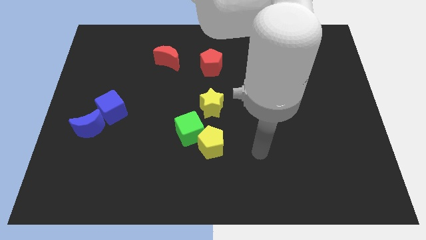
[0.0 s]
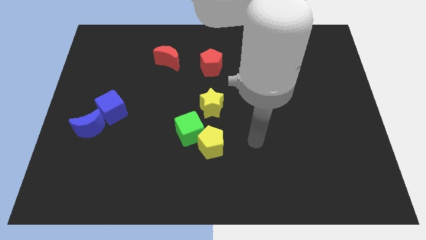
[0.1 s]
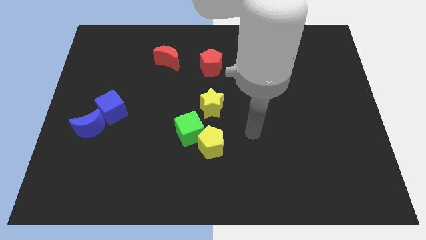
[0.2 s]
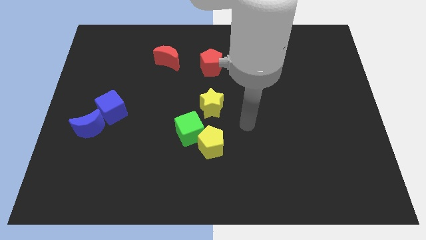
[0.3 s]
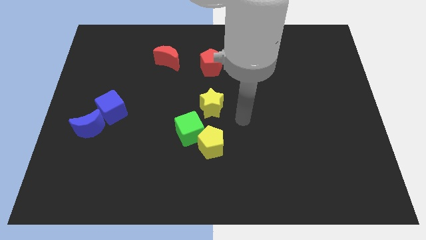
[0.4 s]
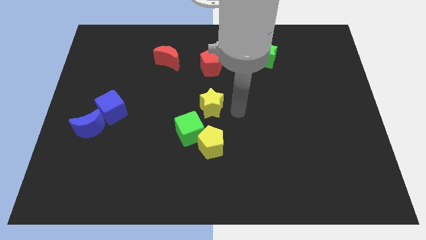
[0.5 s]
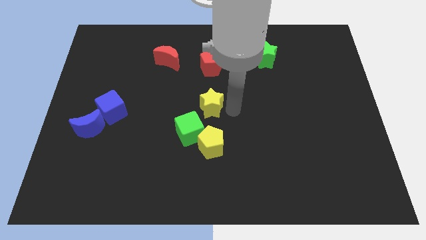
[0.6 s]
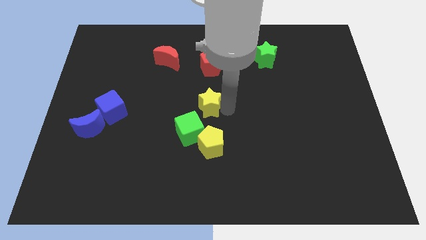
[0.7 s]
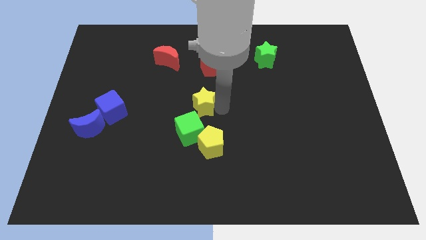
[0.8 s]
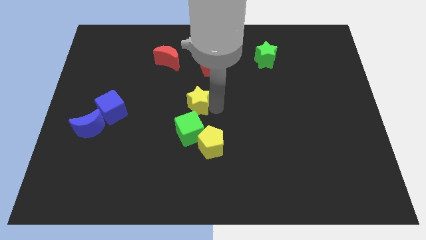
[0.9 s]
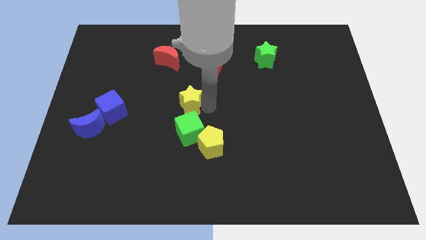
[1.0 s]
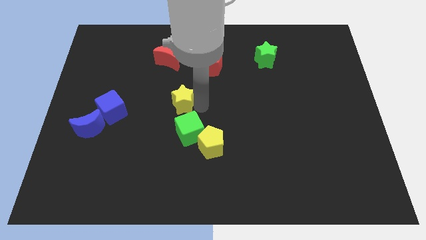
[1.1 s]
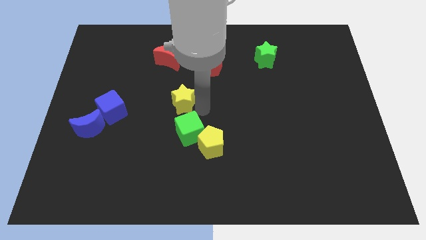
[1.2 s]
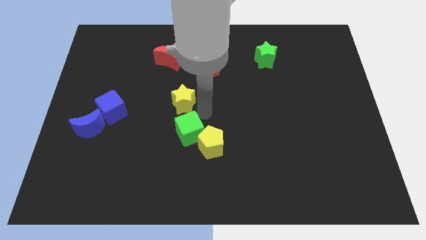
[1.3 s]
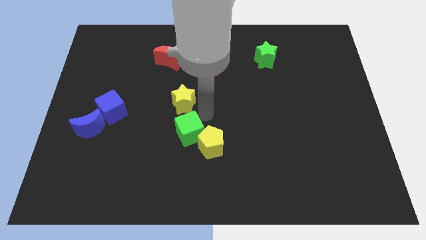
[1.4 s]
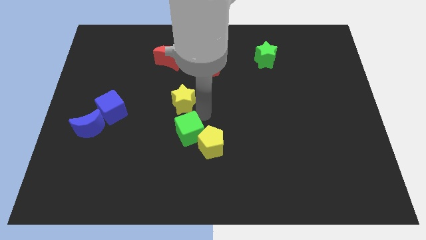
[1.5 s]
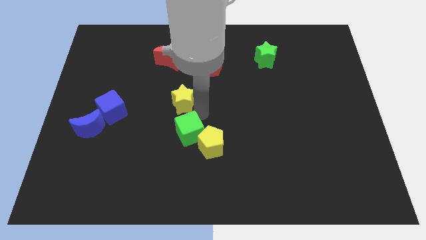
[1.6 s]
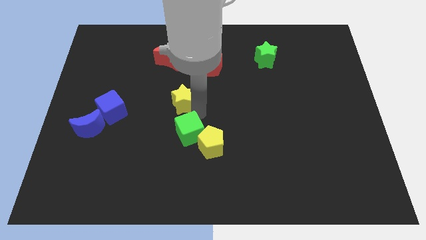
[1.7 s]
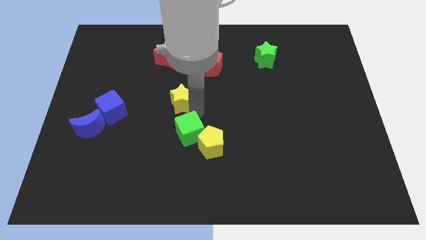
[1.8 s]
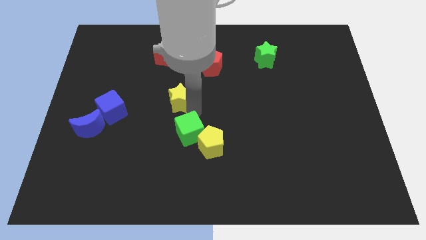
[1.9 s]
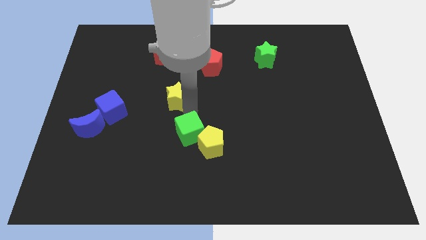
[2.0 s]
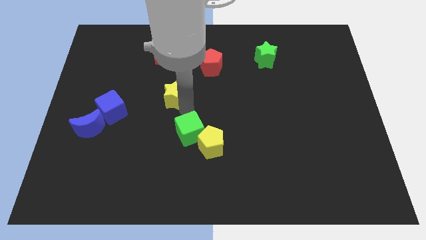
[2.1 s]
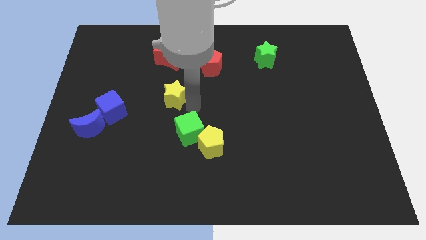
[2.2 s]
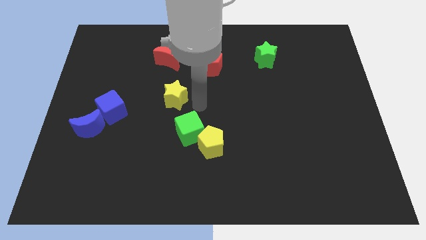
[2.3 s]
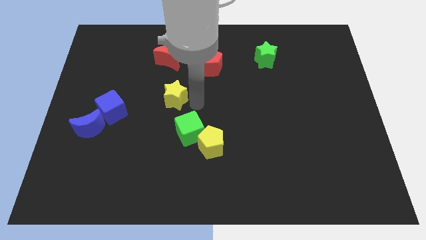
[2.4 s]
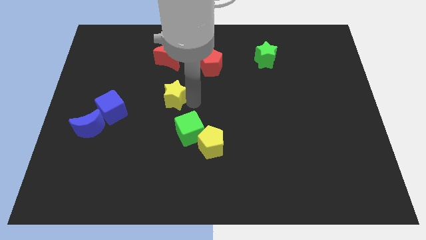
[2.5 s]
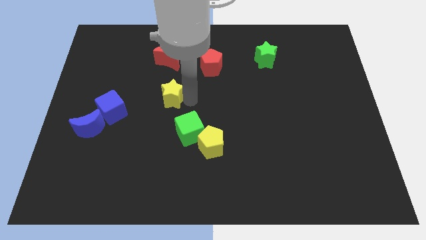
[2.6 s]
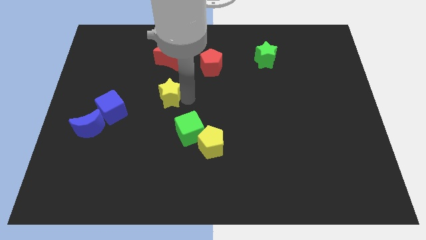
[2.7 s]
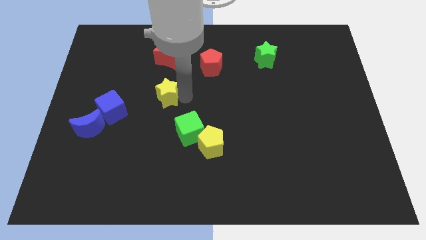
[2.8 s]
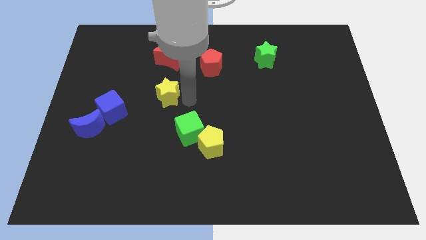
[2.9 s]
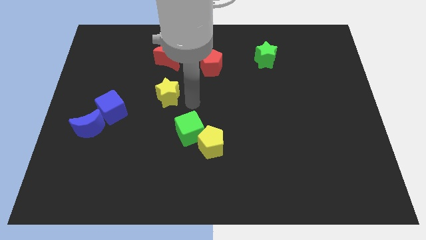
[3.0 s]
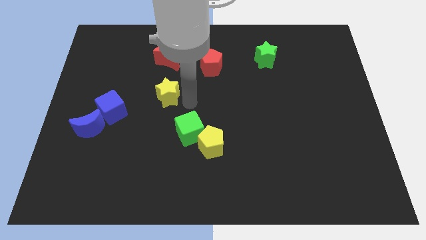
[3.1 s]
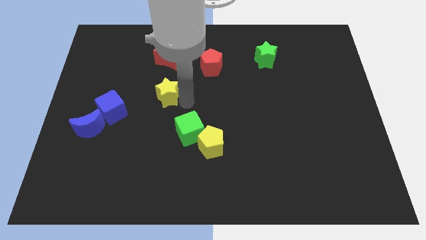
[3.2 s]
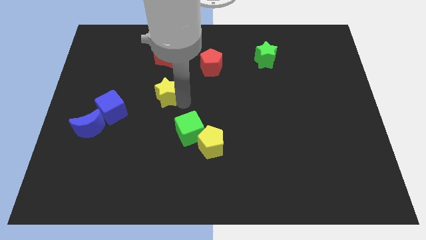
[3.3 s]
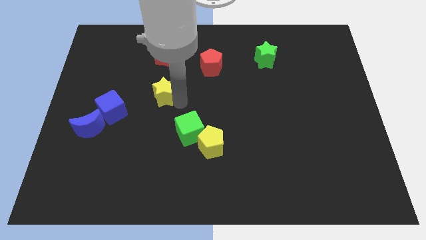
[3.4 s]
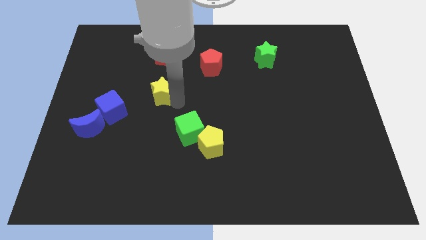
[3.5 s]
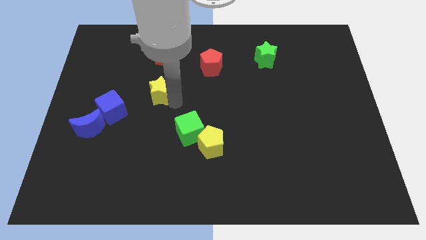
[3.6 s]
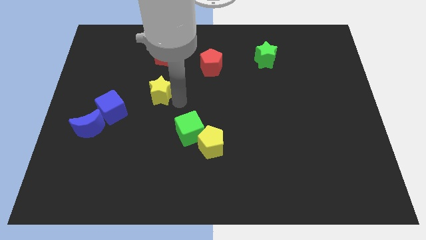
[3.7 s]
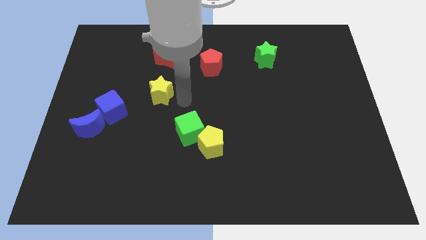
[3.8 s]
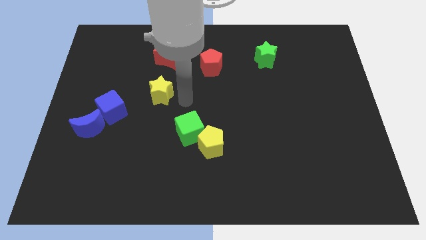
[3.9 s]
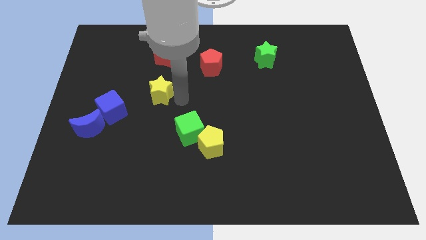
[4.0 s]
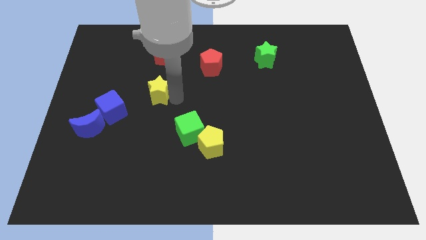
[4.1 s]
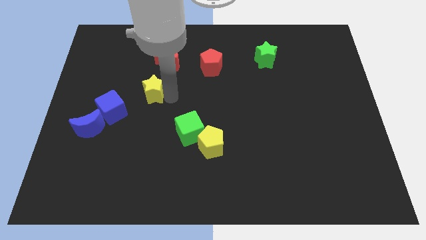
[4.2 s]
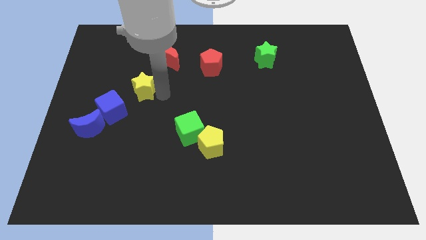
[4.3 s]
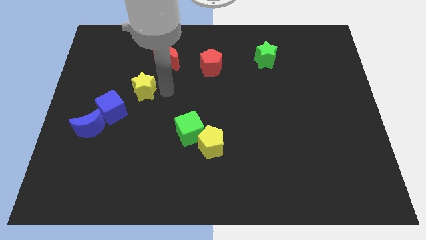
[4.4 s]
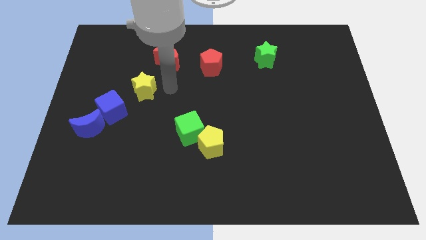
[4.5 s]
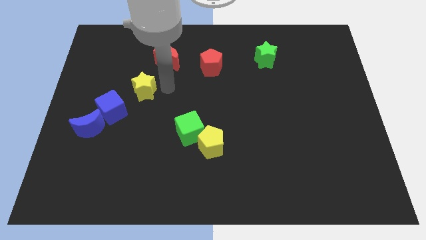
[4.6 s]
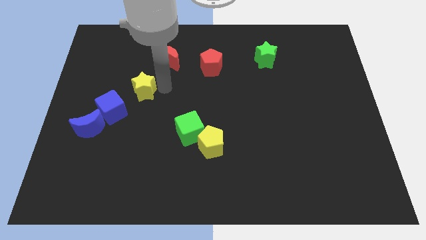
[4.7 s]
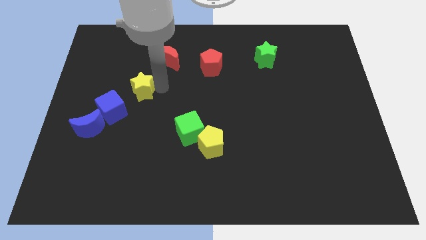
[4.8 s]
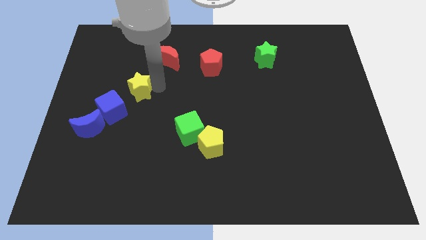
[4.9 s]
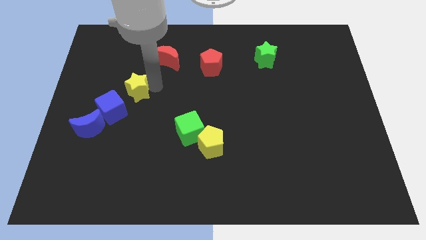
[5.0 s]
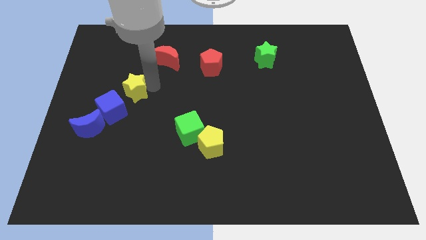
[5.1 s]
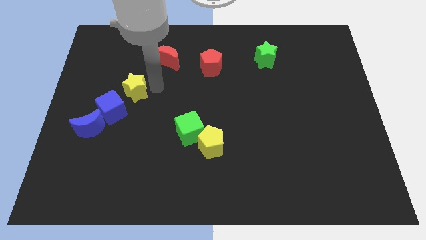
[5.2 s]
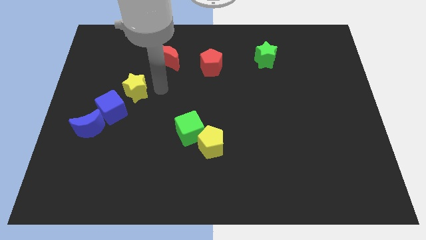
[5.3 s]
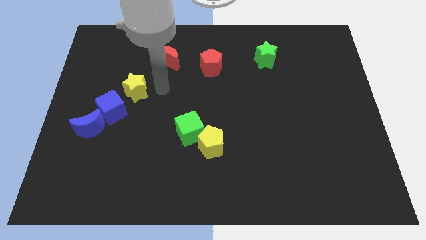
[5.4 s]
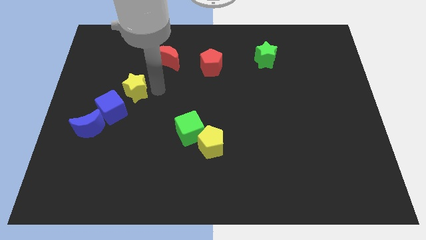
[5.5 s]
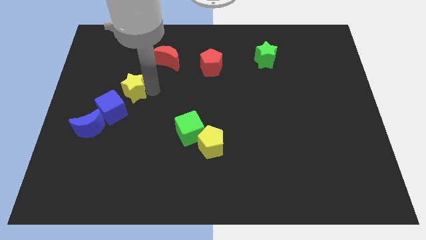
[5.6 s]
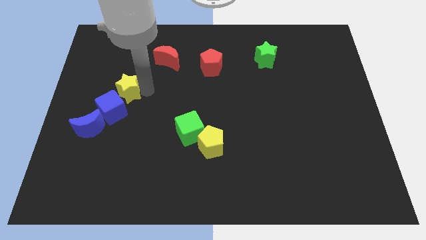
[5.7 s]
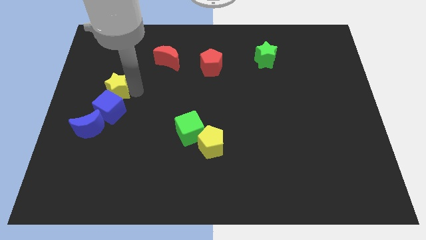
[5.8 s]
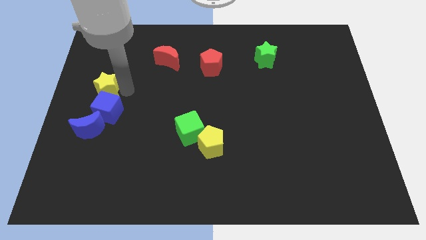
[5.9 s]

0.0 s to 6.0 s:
push the yellow star to the left side

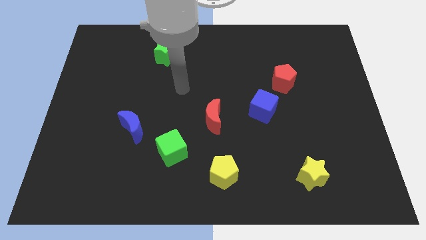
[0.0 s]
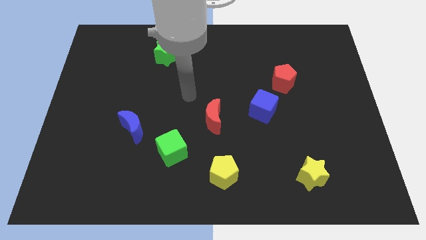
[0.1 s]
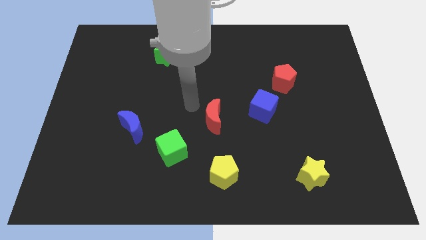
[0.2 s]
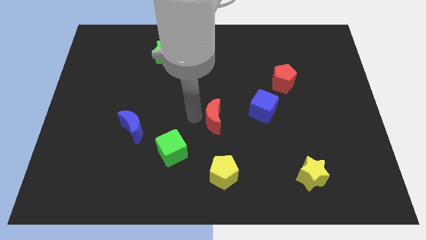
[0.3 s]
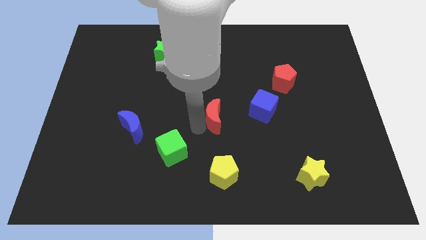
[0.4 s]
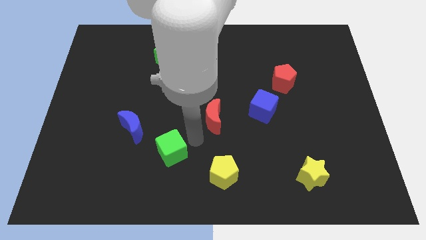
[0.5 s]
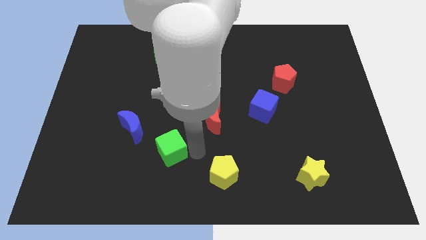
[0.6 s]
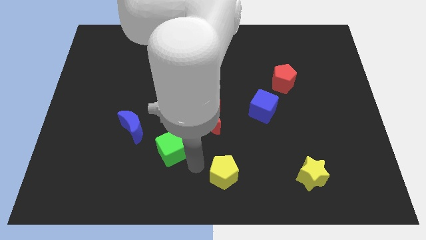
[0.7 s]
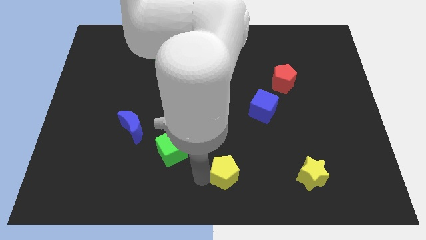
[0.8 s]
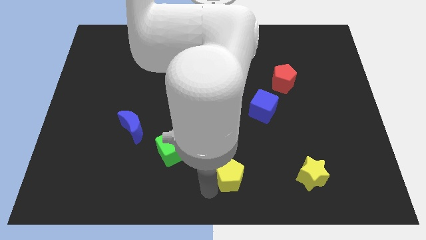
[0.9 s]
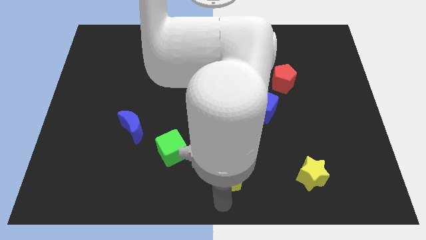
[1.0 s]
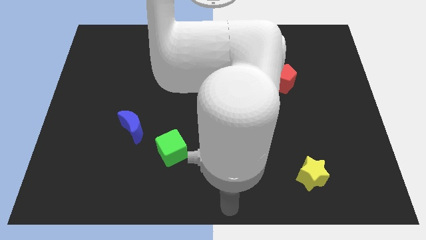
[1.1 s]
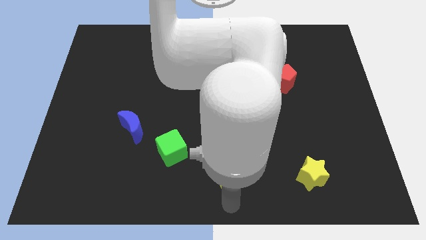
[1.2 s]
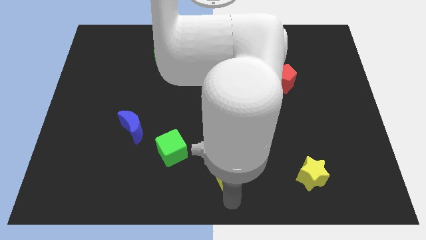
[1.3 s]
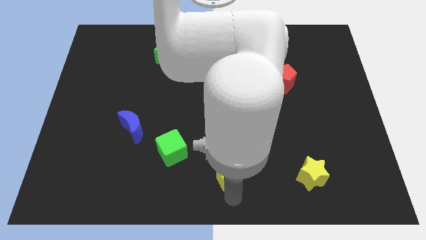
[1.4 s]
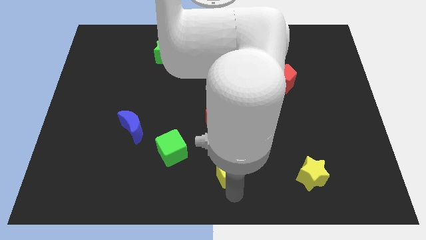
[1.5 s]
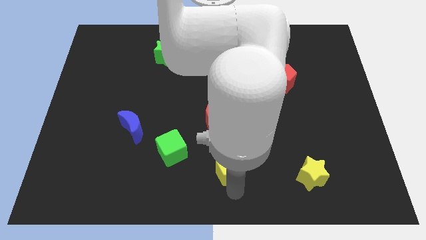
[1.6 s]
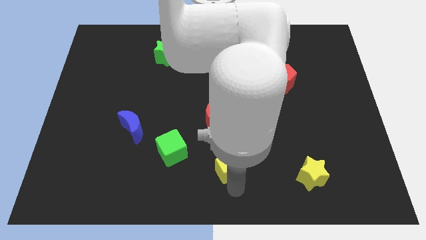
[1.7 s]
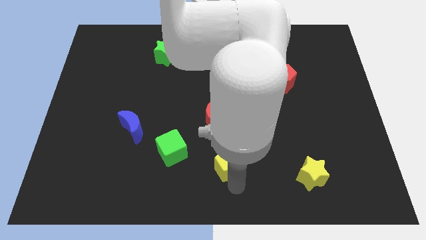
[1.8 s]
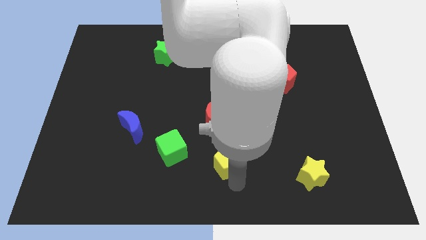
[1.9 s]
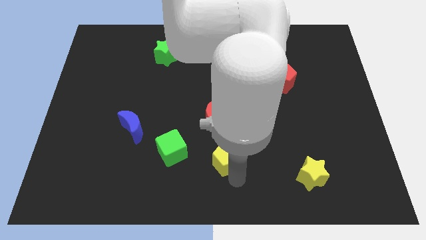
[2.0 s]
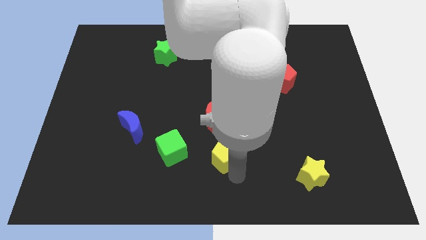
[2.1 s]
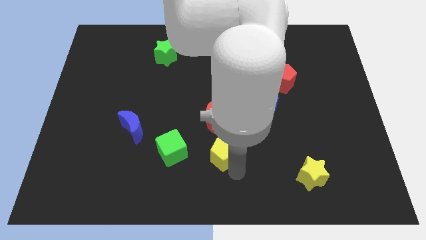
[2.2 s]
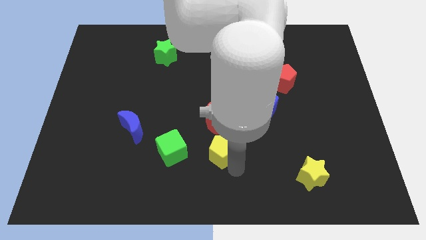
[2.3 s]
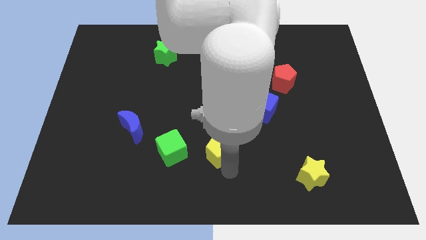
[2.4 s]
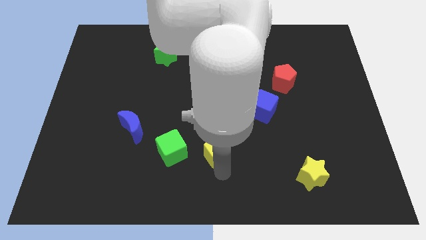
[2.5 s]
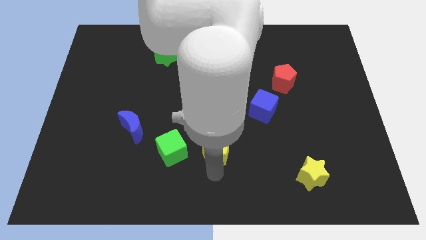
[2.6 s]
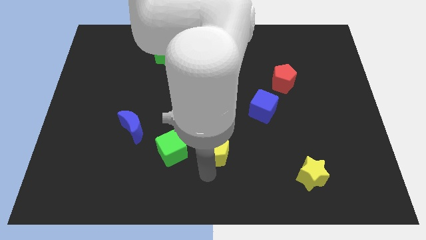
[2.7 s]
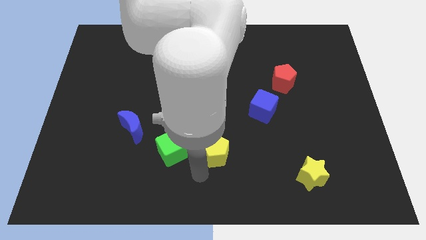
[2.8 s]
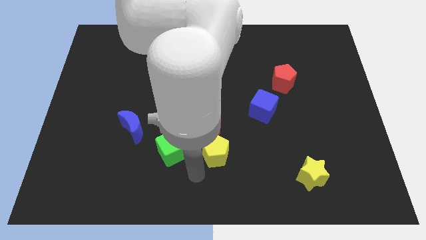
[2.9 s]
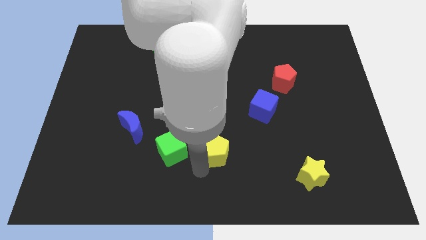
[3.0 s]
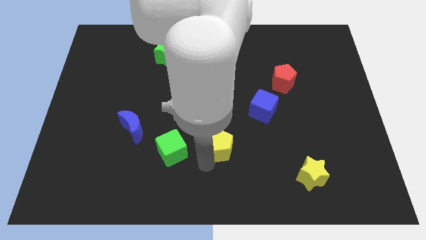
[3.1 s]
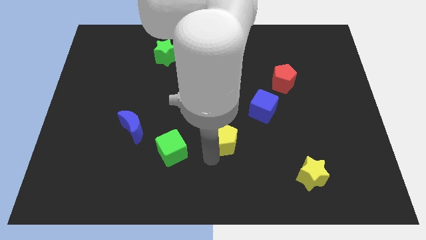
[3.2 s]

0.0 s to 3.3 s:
put the yellow pentagon to the center
